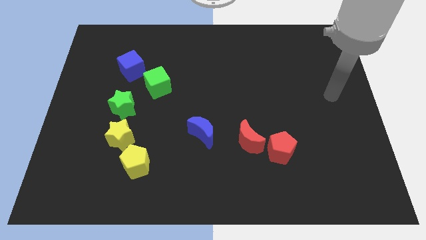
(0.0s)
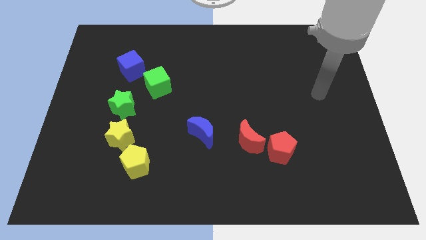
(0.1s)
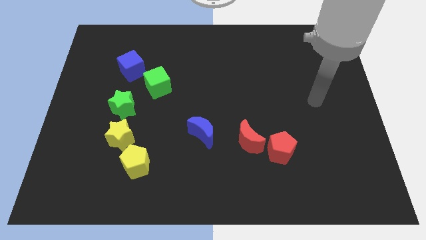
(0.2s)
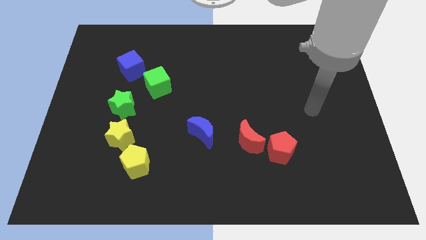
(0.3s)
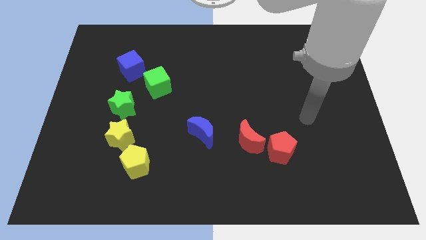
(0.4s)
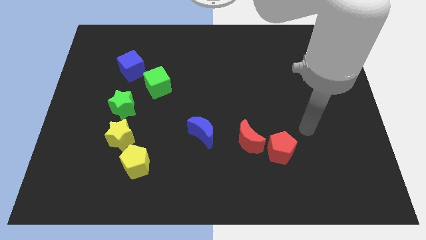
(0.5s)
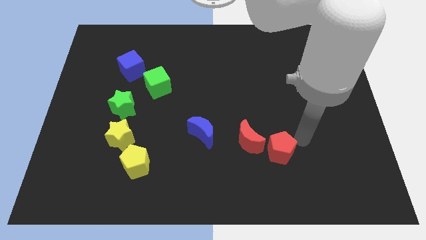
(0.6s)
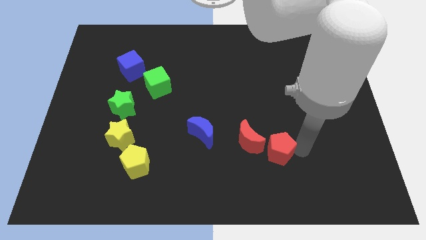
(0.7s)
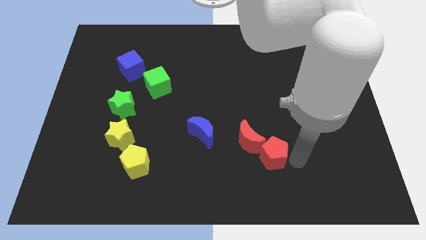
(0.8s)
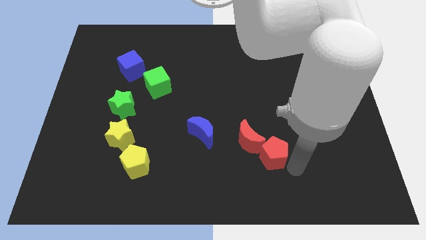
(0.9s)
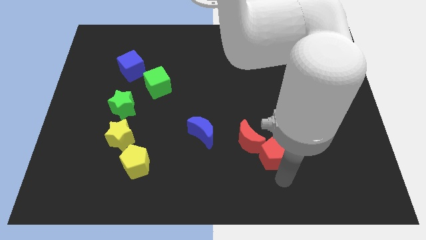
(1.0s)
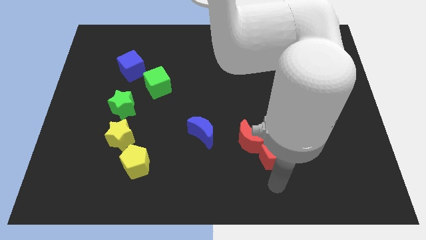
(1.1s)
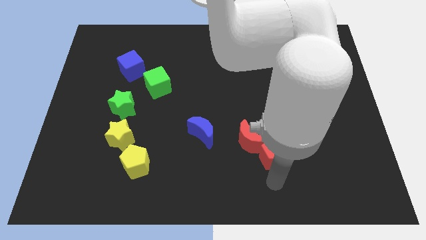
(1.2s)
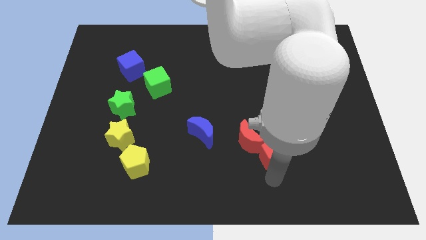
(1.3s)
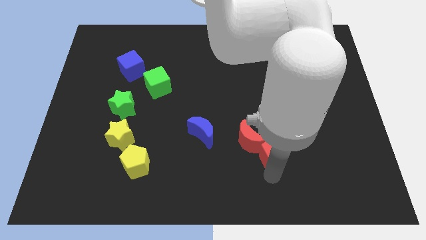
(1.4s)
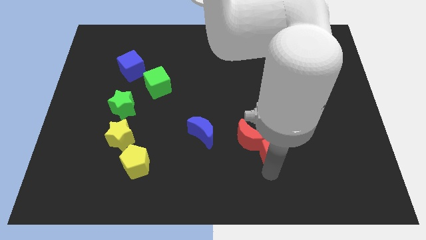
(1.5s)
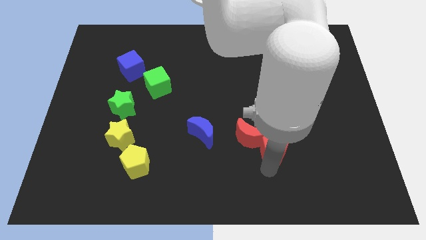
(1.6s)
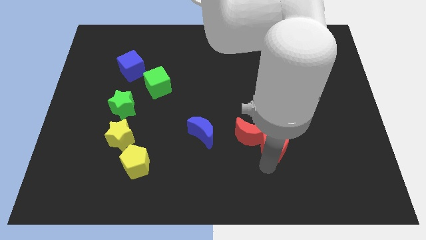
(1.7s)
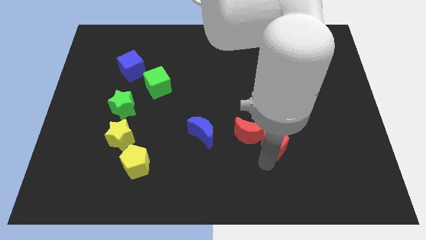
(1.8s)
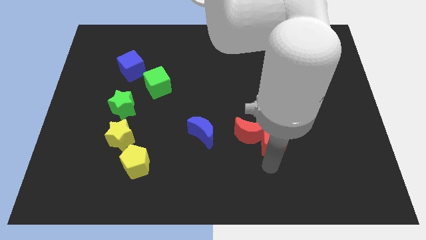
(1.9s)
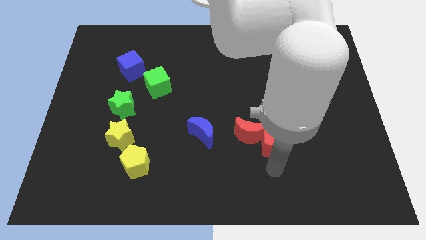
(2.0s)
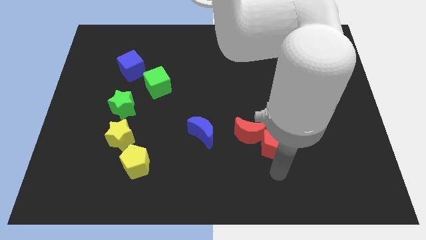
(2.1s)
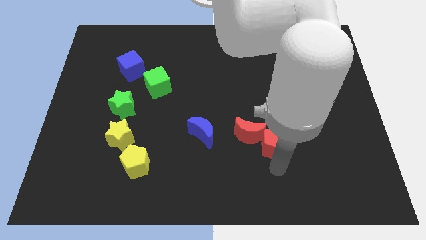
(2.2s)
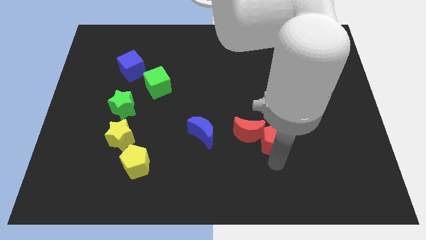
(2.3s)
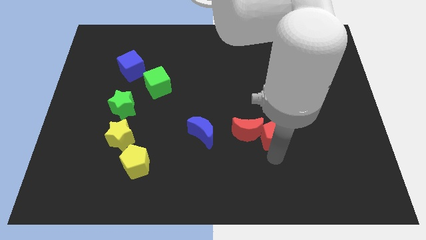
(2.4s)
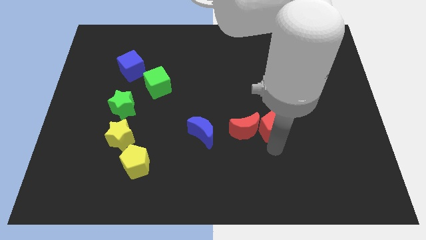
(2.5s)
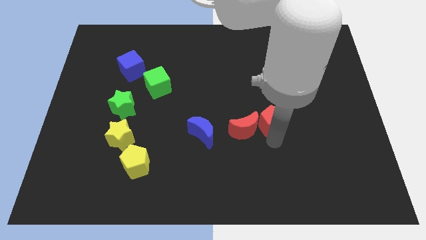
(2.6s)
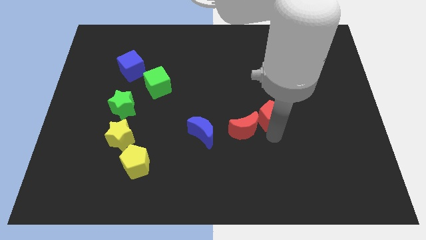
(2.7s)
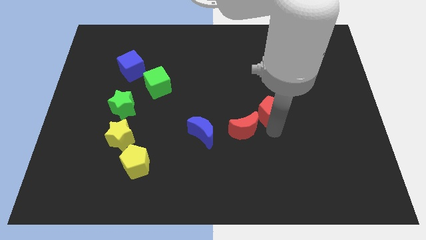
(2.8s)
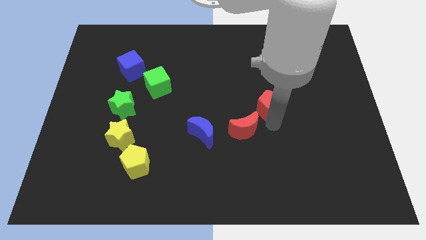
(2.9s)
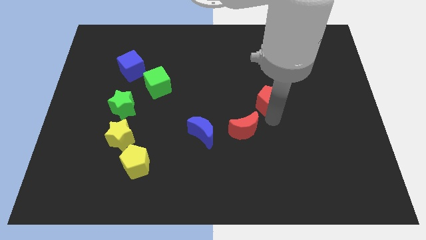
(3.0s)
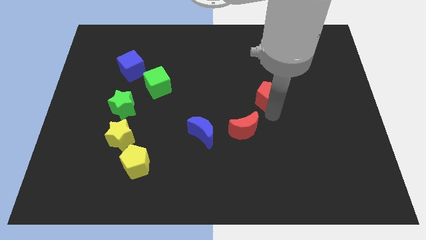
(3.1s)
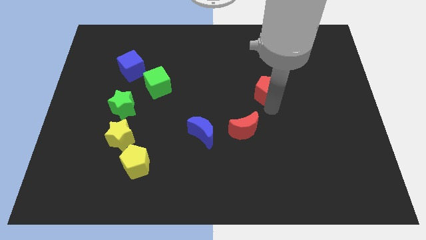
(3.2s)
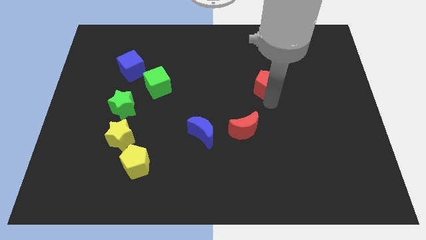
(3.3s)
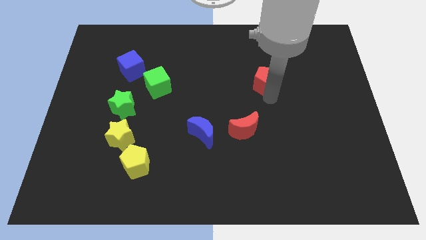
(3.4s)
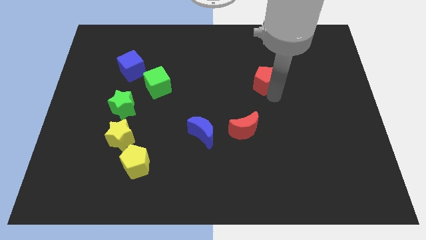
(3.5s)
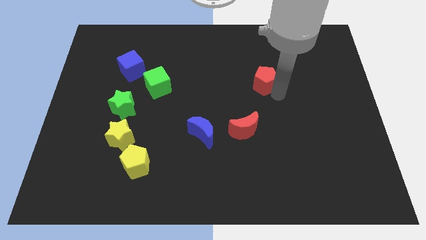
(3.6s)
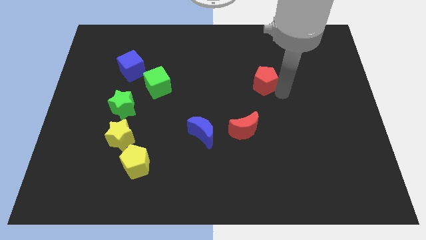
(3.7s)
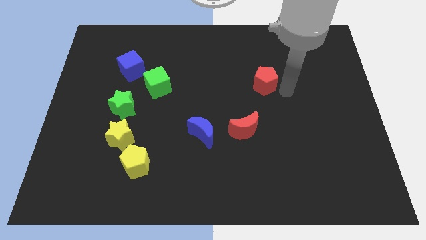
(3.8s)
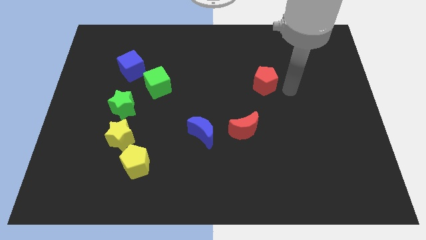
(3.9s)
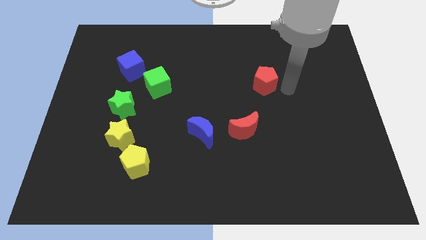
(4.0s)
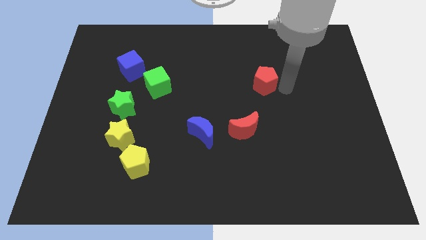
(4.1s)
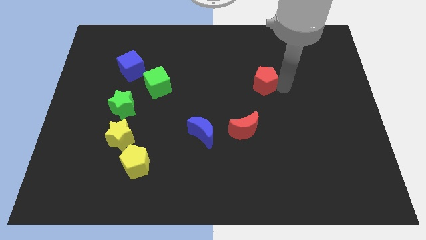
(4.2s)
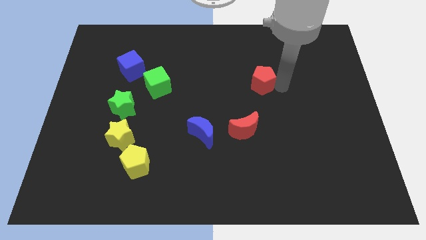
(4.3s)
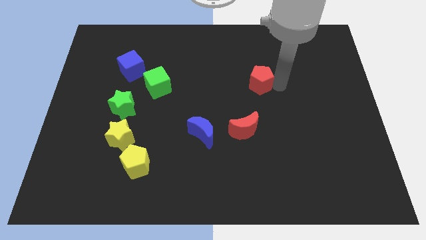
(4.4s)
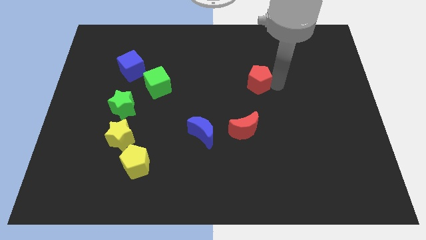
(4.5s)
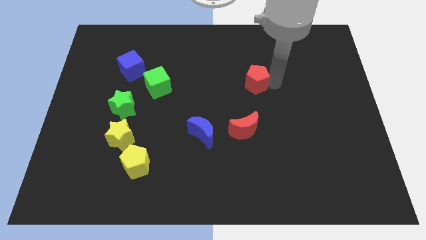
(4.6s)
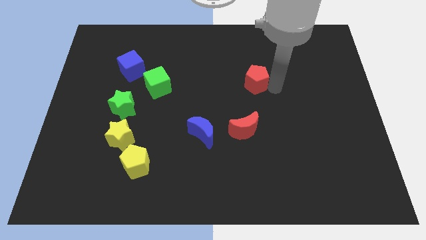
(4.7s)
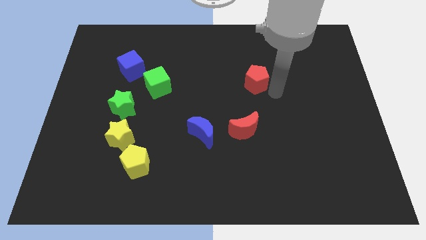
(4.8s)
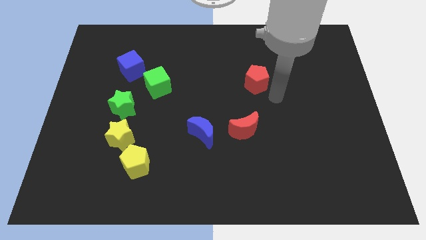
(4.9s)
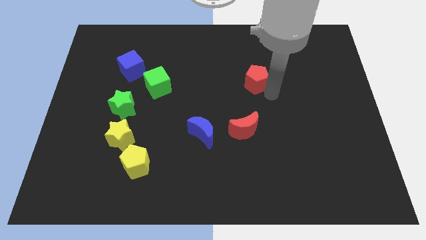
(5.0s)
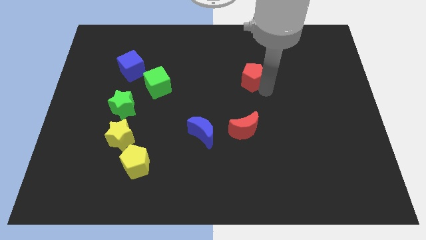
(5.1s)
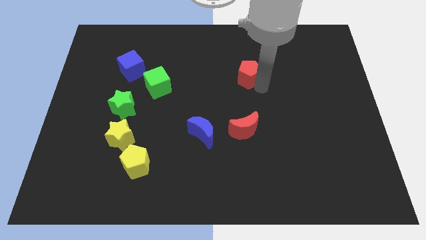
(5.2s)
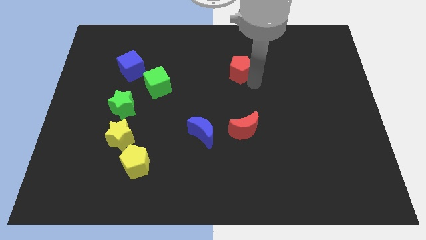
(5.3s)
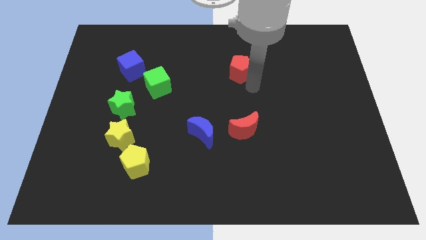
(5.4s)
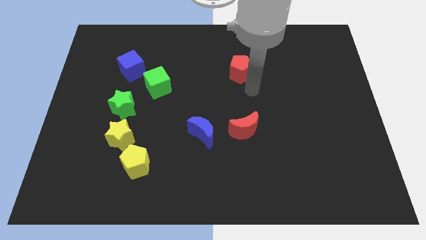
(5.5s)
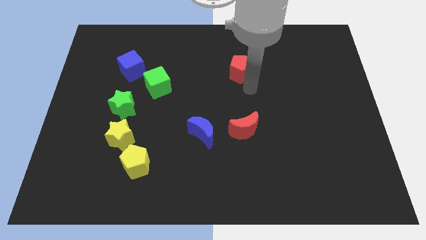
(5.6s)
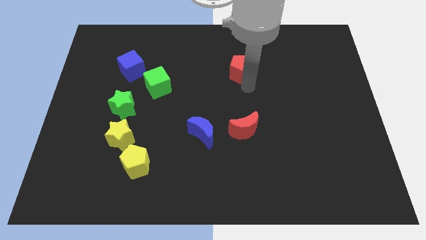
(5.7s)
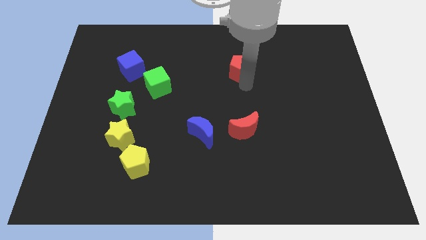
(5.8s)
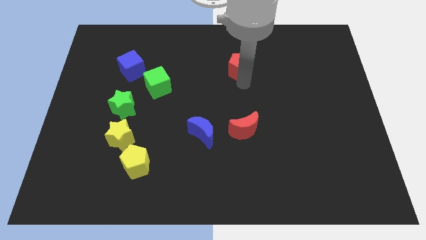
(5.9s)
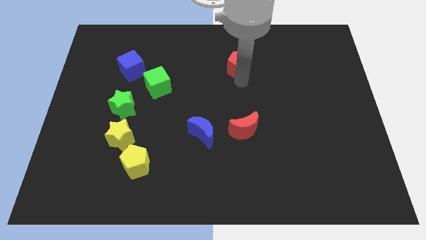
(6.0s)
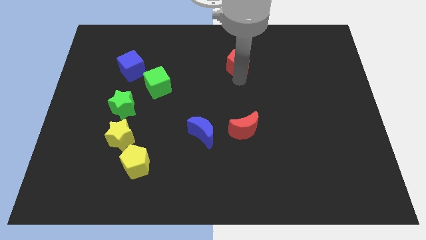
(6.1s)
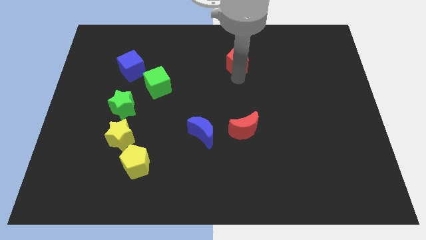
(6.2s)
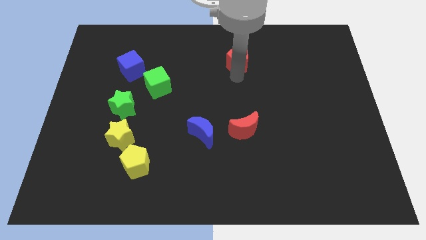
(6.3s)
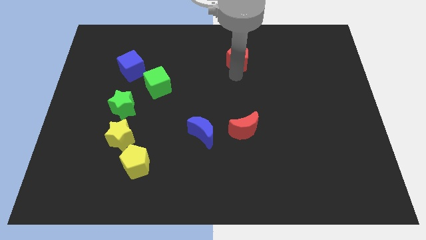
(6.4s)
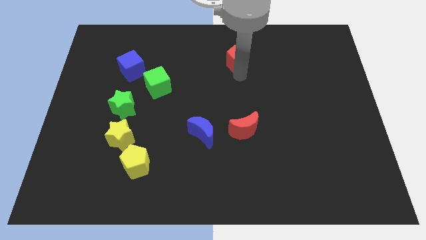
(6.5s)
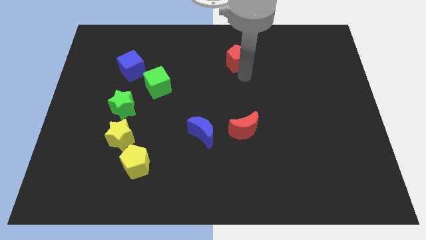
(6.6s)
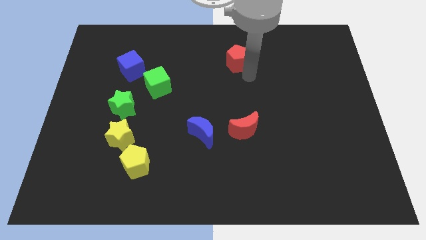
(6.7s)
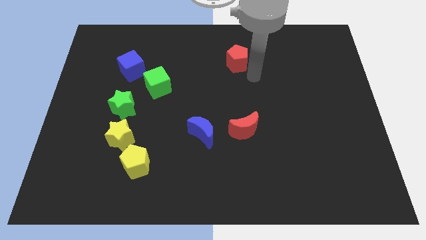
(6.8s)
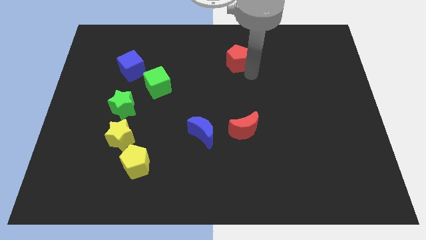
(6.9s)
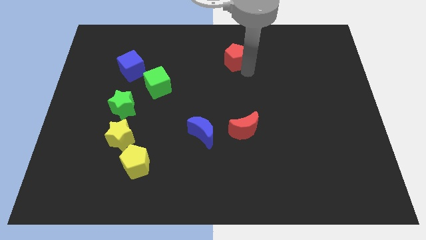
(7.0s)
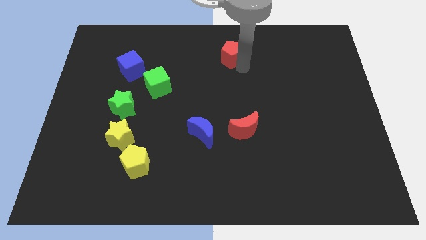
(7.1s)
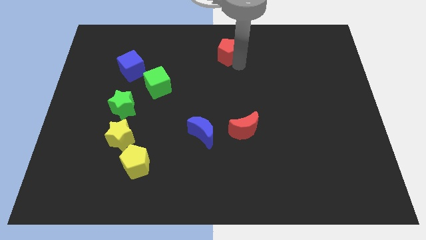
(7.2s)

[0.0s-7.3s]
move the red pentagon to the towards your base

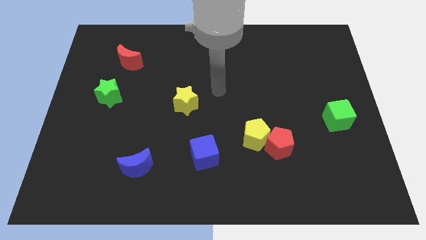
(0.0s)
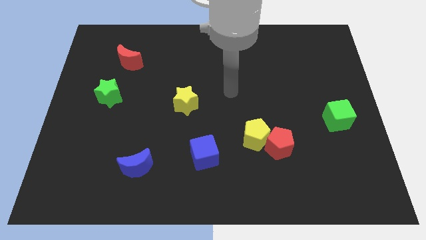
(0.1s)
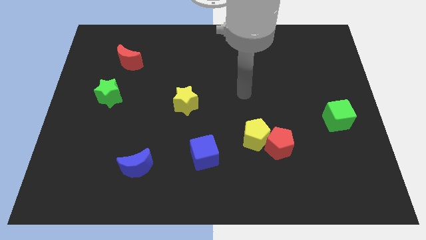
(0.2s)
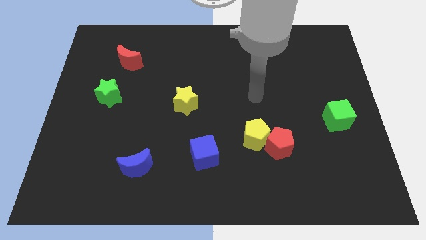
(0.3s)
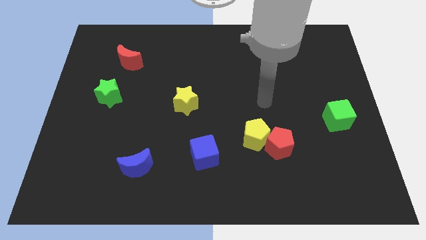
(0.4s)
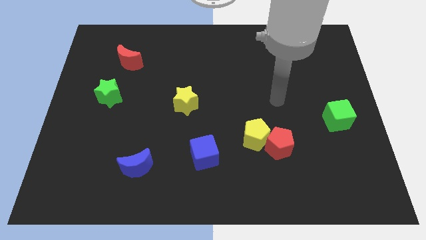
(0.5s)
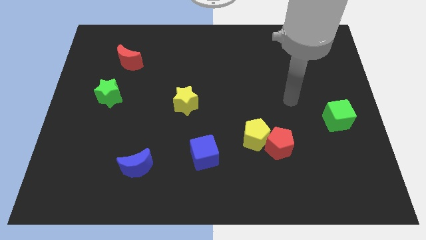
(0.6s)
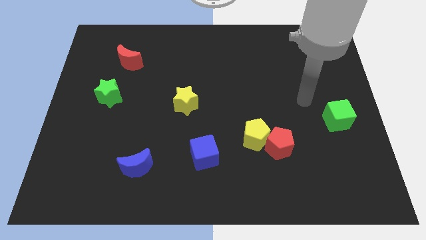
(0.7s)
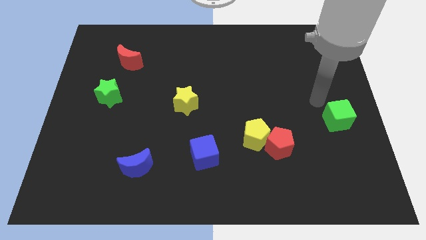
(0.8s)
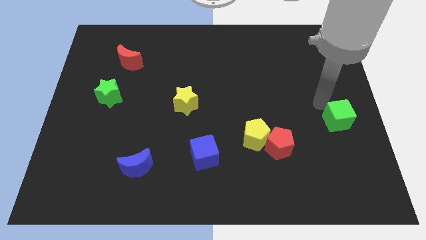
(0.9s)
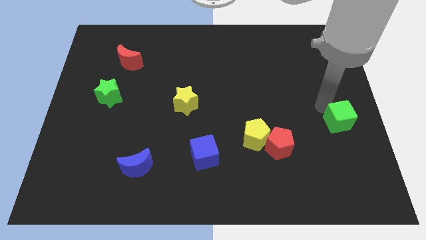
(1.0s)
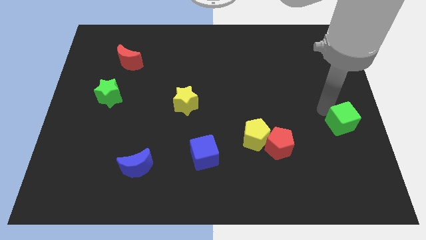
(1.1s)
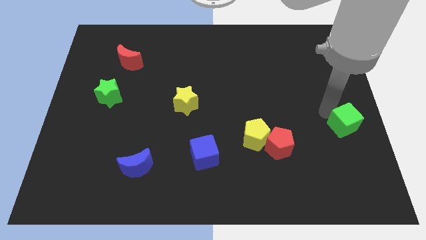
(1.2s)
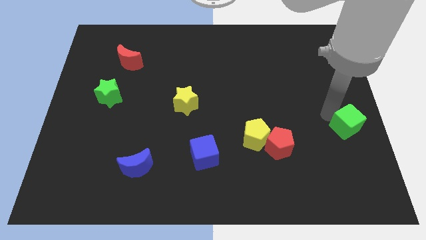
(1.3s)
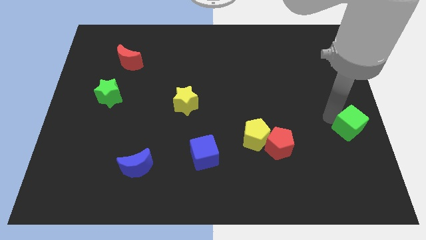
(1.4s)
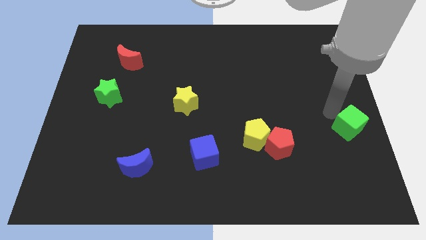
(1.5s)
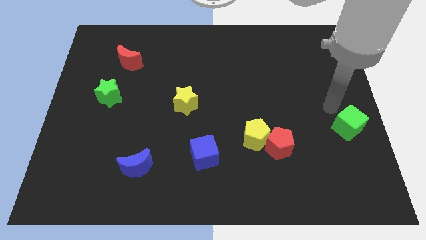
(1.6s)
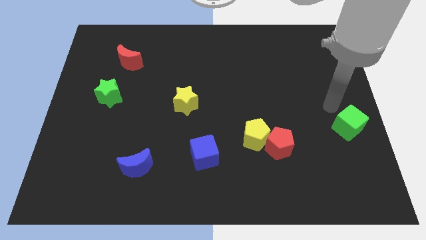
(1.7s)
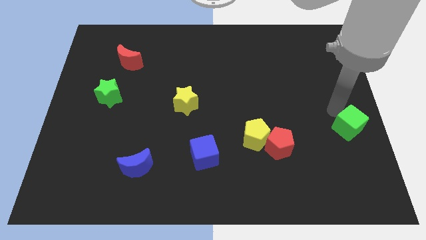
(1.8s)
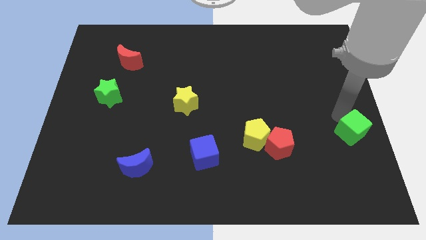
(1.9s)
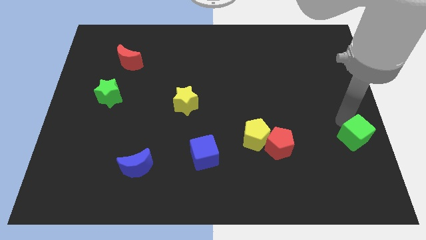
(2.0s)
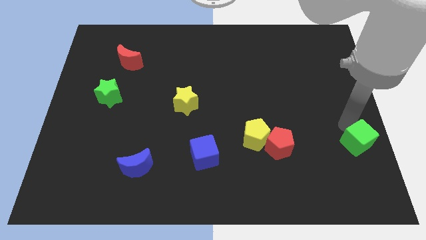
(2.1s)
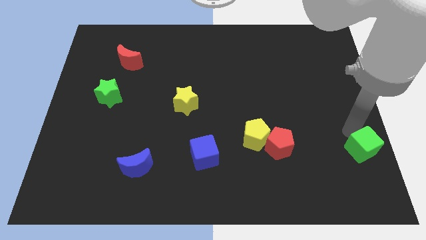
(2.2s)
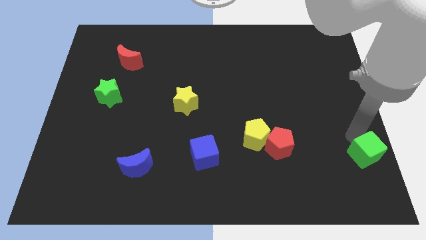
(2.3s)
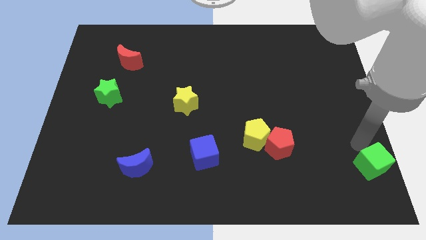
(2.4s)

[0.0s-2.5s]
push the green cube to the bottom right
